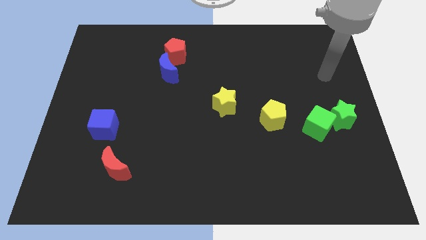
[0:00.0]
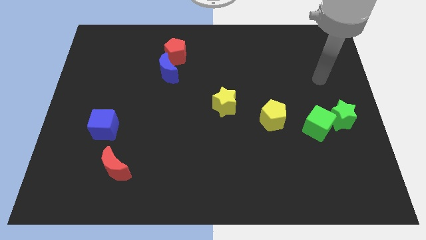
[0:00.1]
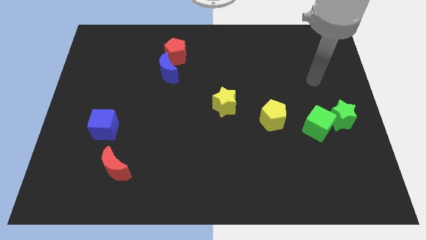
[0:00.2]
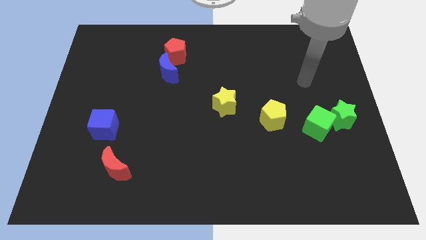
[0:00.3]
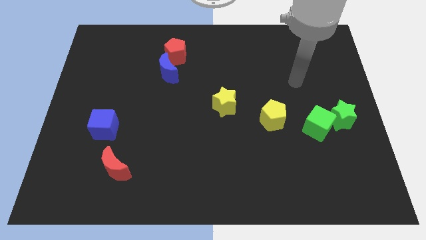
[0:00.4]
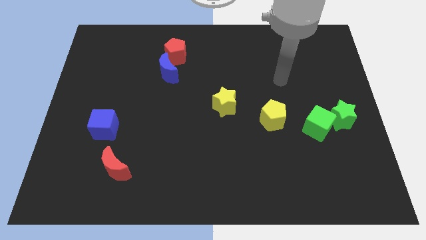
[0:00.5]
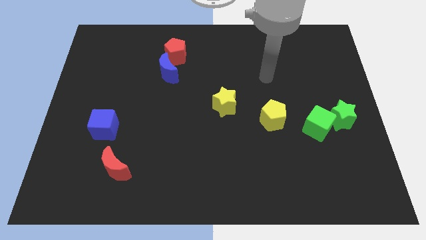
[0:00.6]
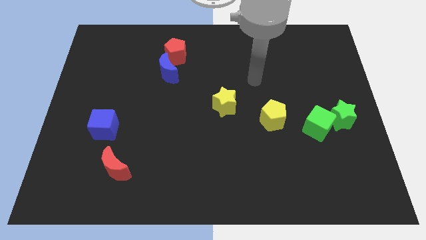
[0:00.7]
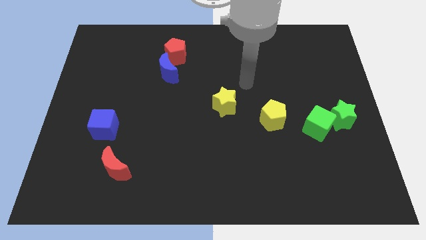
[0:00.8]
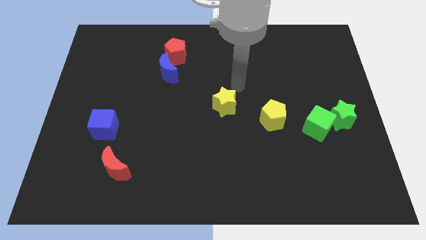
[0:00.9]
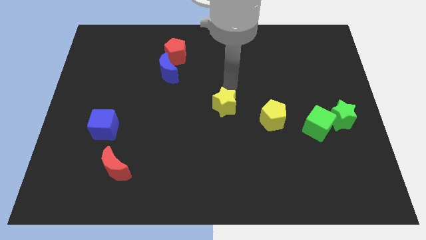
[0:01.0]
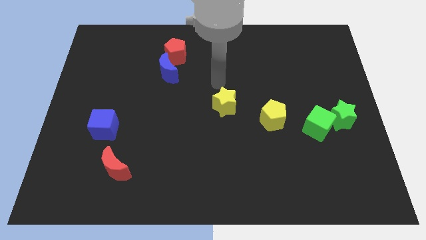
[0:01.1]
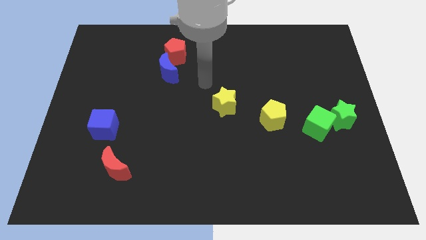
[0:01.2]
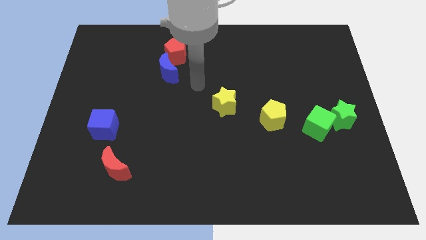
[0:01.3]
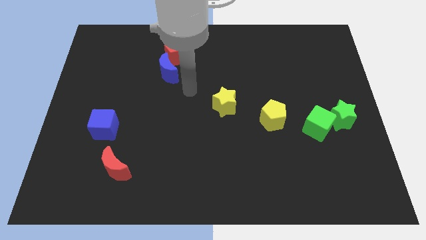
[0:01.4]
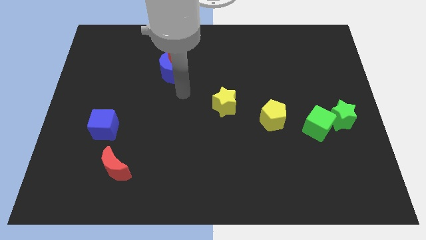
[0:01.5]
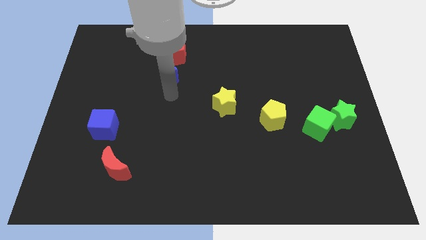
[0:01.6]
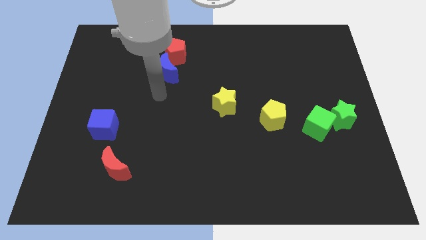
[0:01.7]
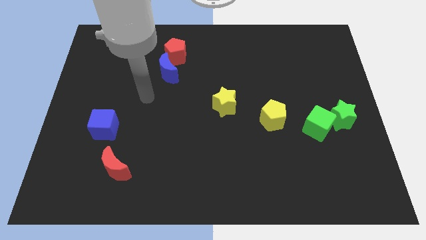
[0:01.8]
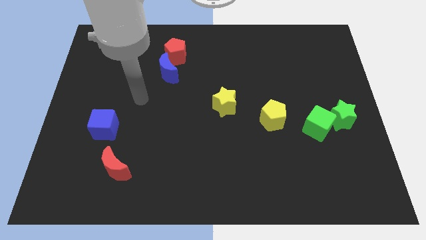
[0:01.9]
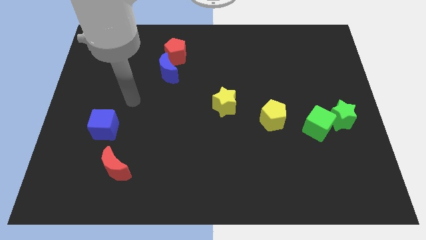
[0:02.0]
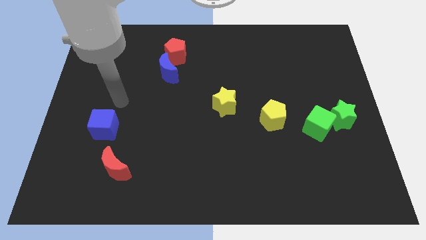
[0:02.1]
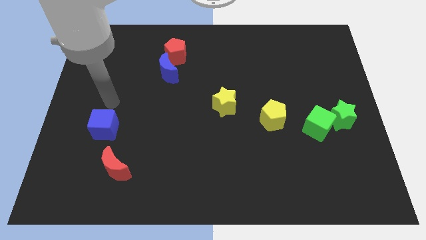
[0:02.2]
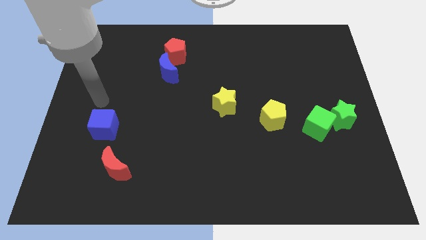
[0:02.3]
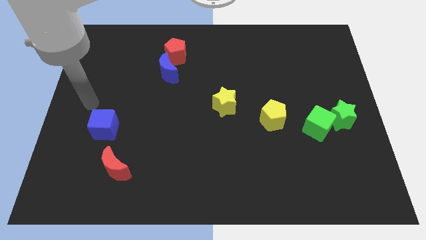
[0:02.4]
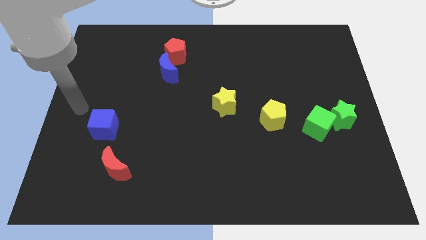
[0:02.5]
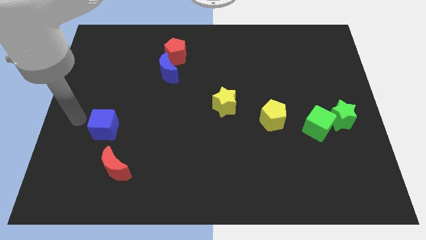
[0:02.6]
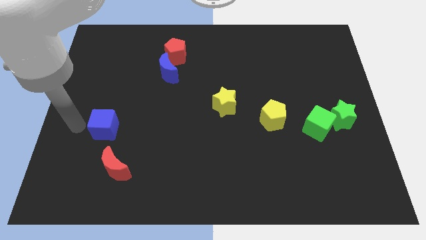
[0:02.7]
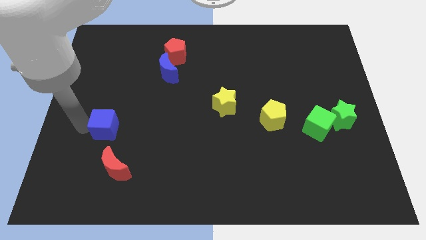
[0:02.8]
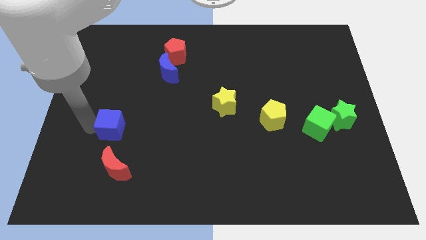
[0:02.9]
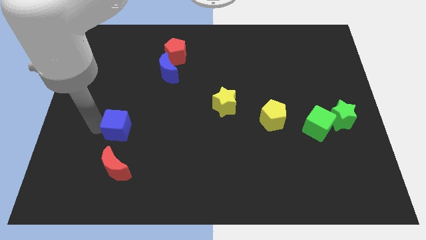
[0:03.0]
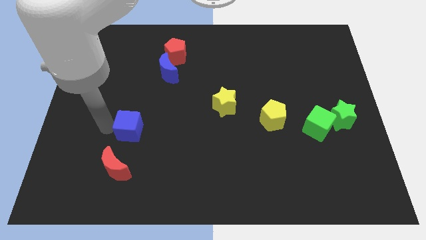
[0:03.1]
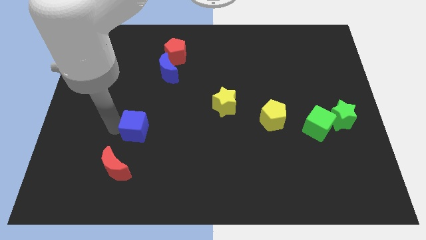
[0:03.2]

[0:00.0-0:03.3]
slightly push the blue cube right

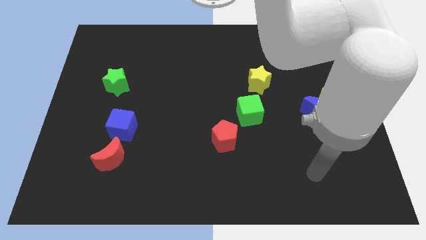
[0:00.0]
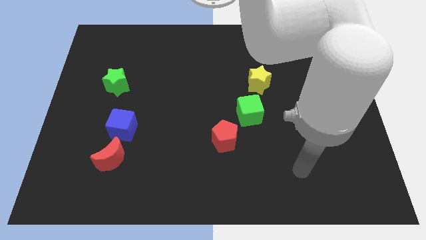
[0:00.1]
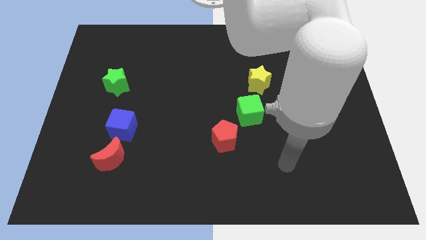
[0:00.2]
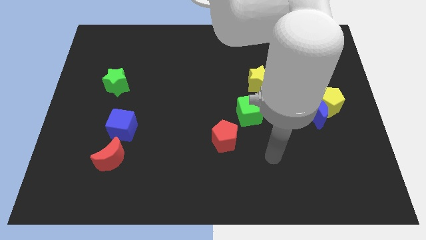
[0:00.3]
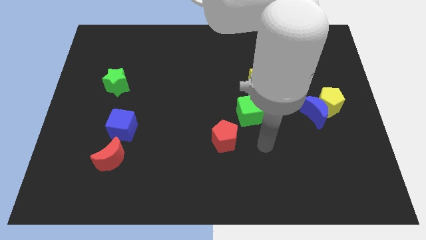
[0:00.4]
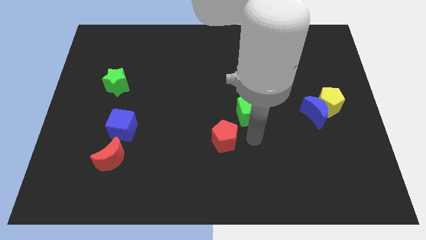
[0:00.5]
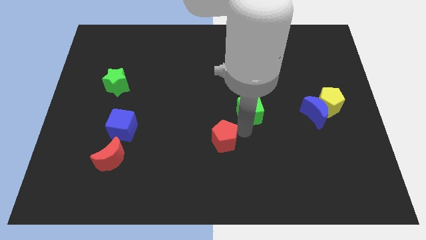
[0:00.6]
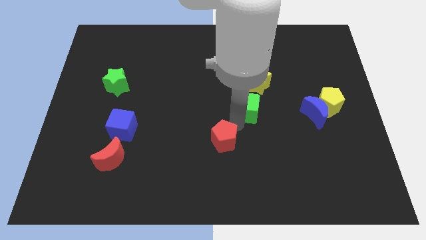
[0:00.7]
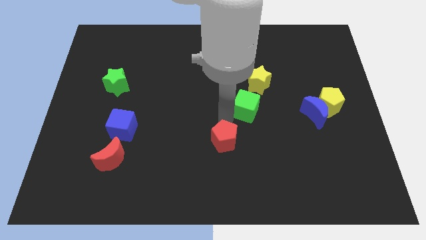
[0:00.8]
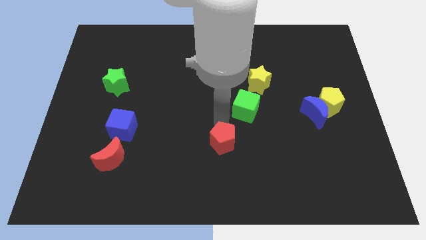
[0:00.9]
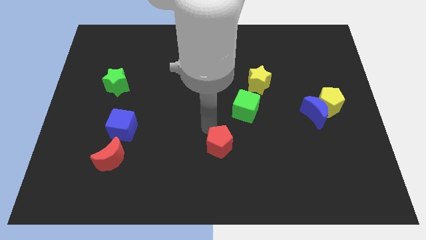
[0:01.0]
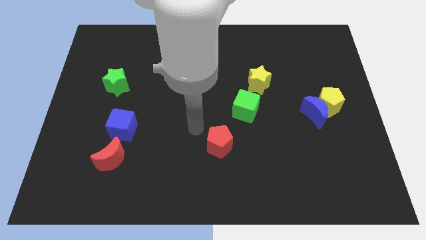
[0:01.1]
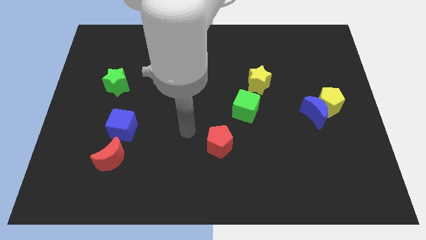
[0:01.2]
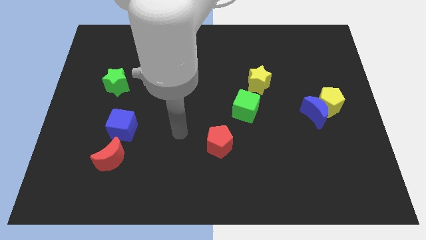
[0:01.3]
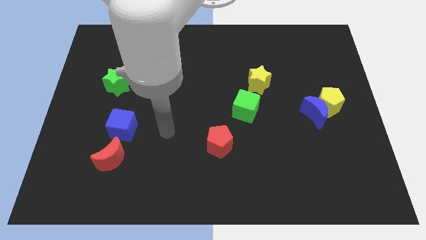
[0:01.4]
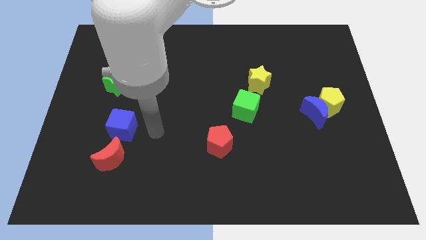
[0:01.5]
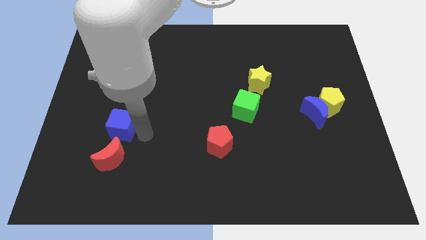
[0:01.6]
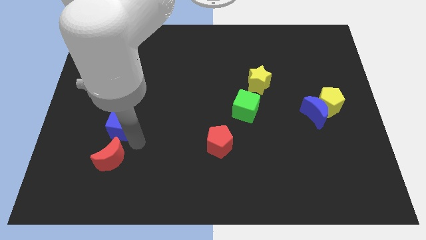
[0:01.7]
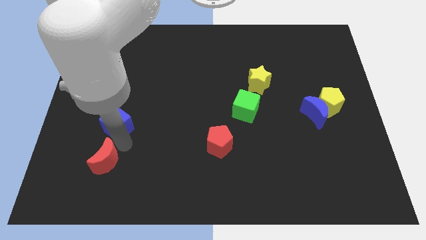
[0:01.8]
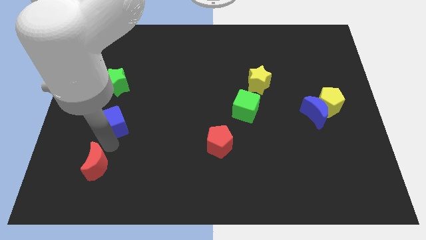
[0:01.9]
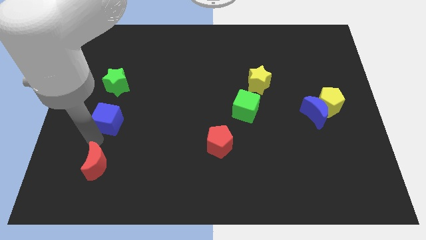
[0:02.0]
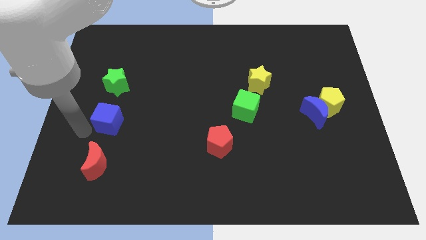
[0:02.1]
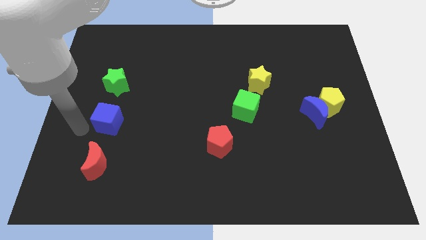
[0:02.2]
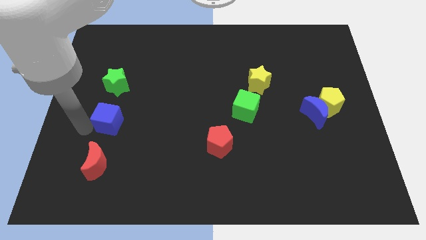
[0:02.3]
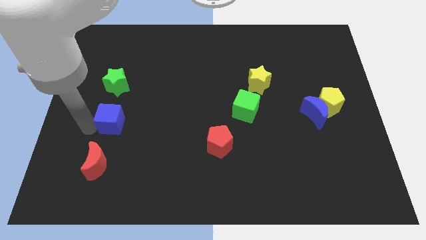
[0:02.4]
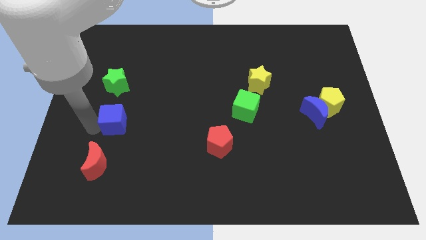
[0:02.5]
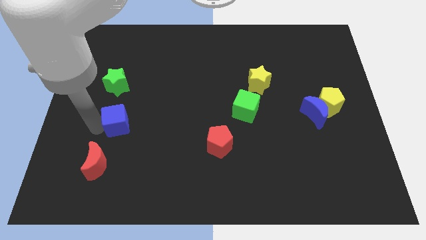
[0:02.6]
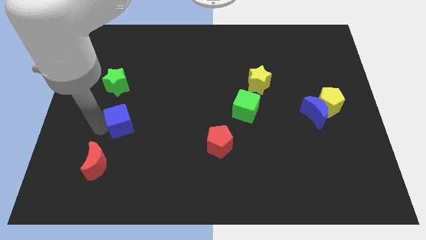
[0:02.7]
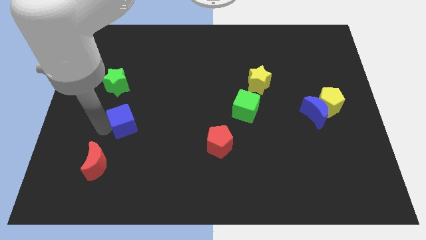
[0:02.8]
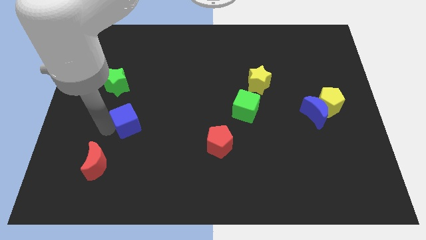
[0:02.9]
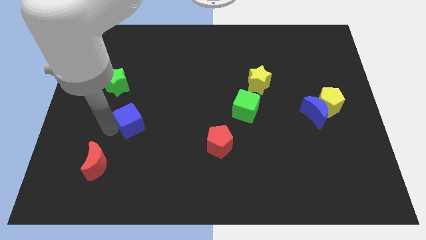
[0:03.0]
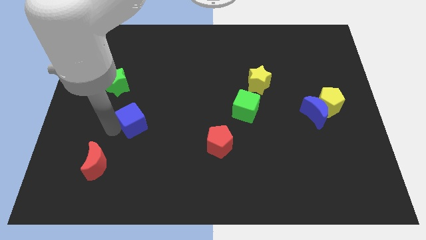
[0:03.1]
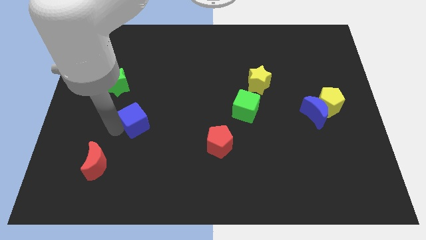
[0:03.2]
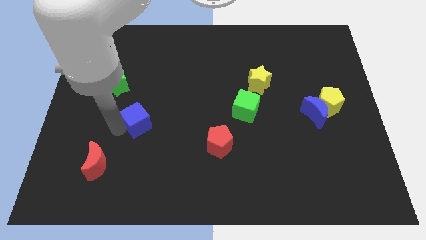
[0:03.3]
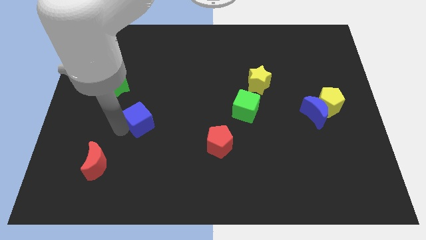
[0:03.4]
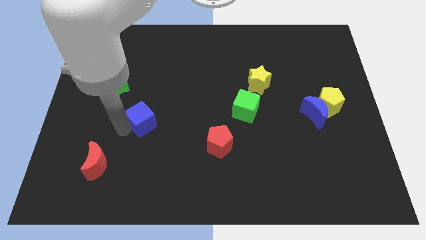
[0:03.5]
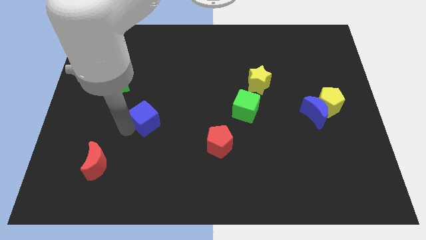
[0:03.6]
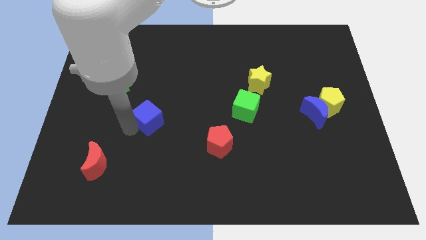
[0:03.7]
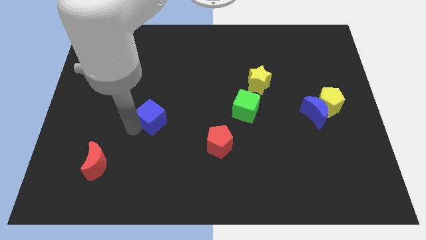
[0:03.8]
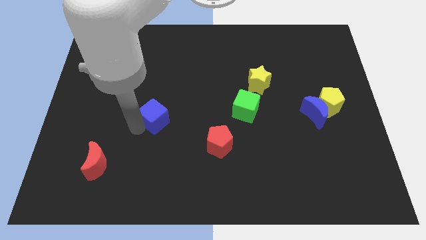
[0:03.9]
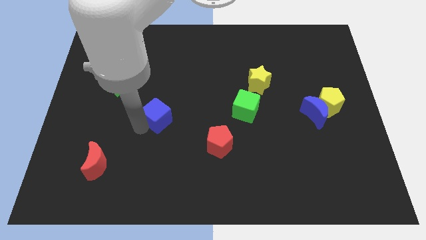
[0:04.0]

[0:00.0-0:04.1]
push the blue cube up and then right slightly

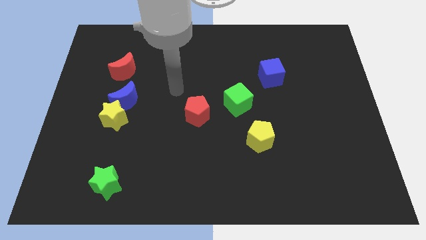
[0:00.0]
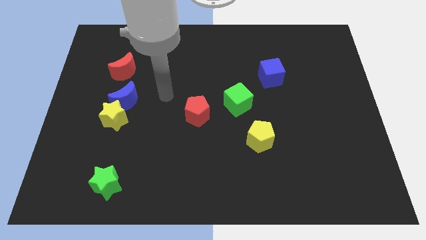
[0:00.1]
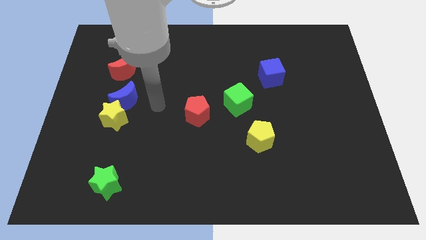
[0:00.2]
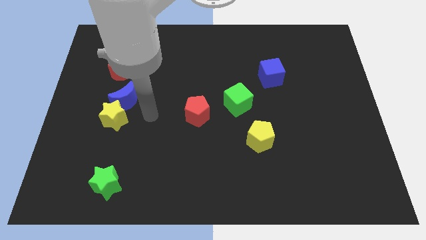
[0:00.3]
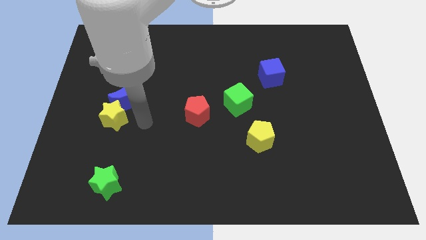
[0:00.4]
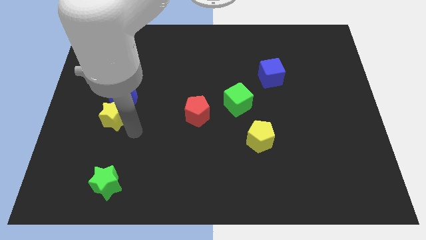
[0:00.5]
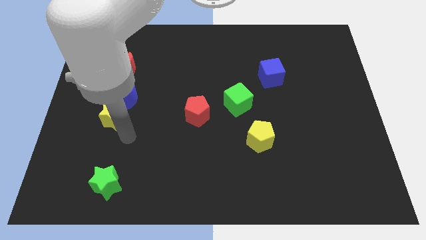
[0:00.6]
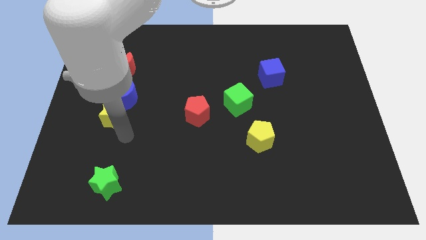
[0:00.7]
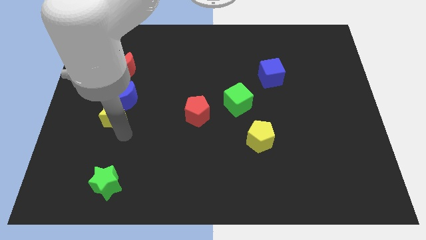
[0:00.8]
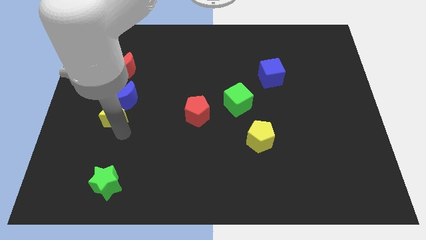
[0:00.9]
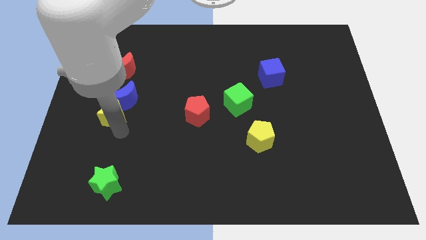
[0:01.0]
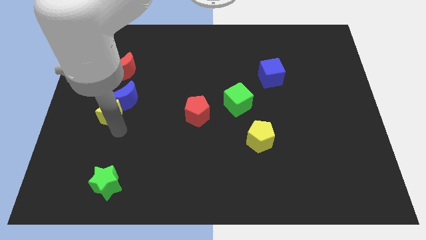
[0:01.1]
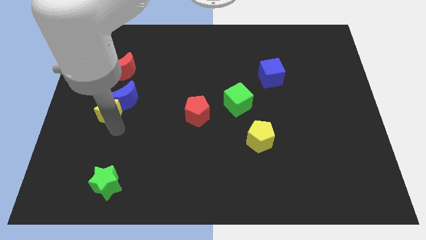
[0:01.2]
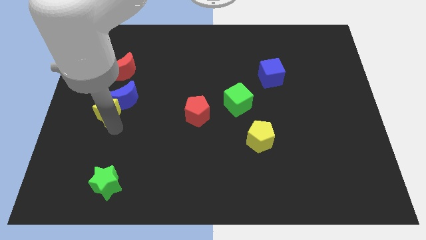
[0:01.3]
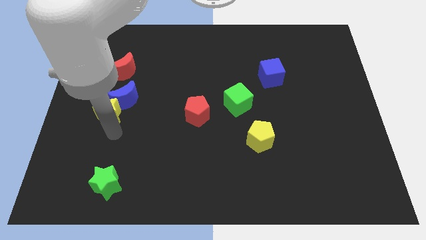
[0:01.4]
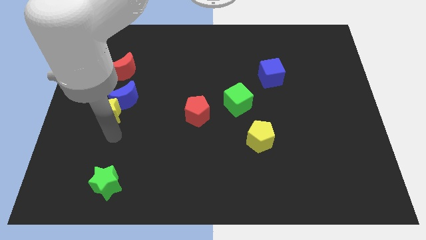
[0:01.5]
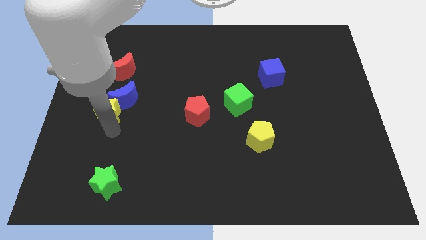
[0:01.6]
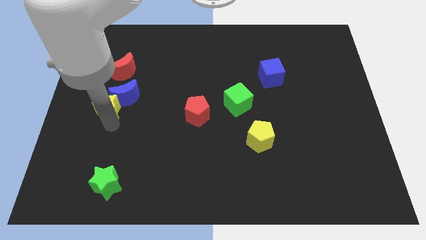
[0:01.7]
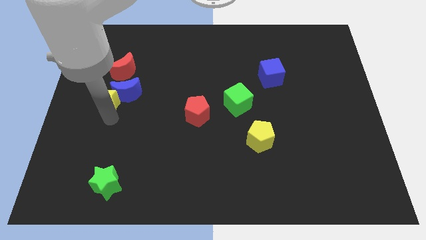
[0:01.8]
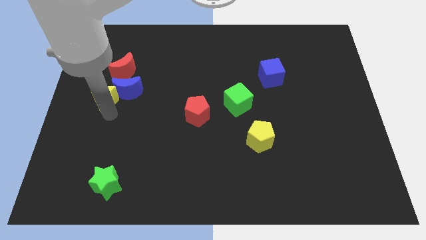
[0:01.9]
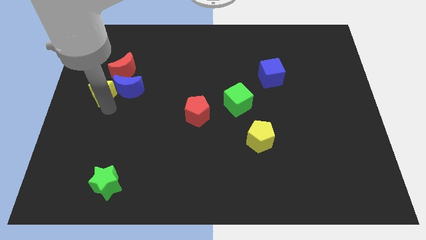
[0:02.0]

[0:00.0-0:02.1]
slightly push the yellow star up
